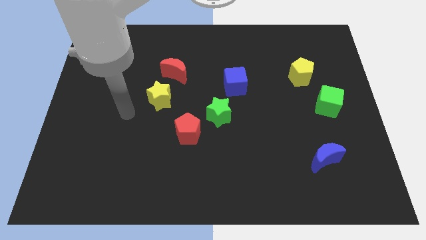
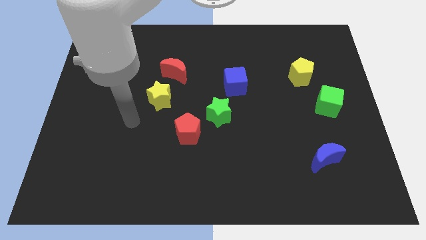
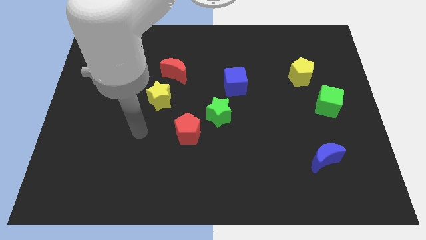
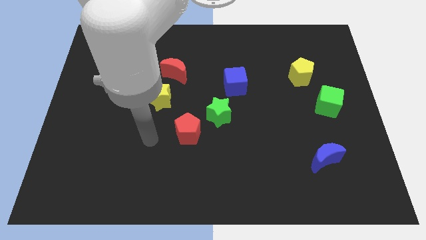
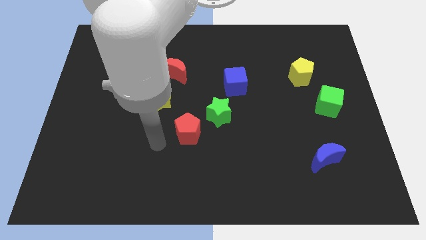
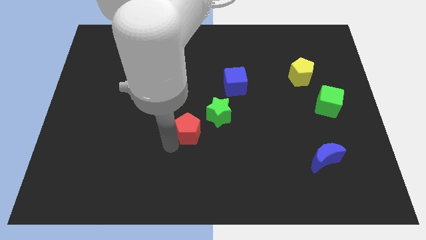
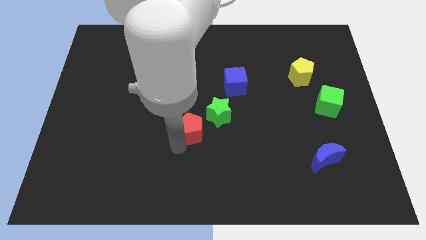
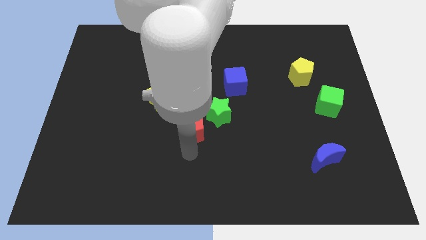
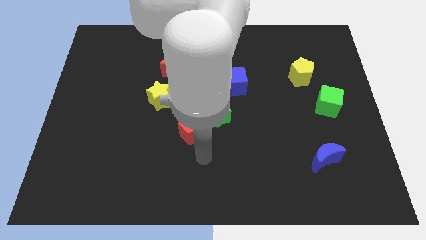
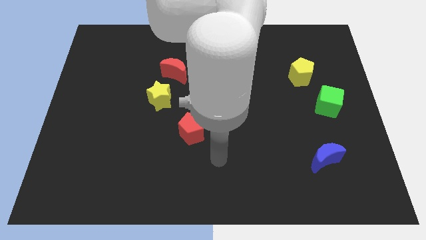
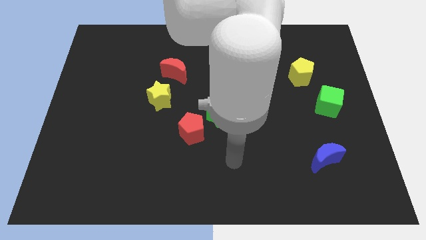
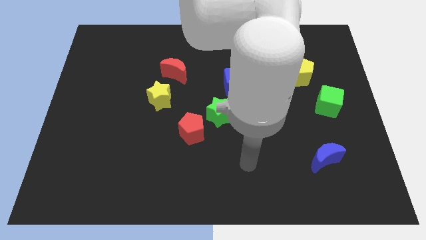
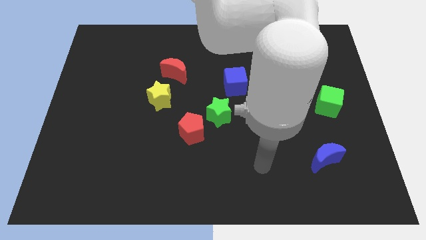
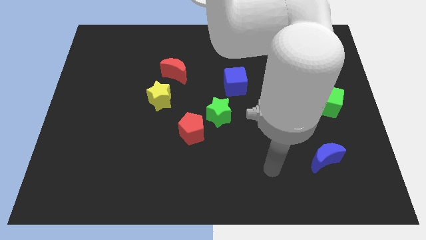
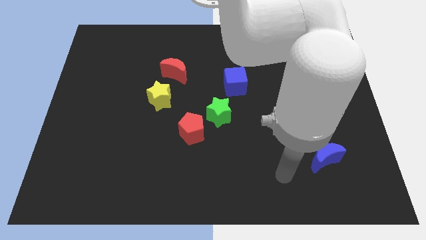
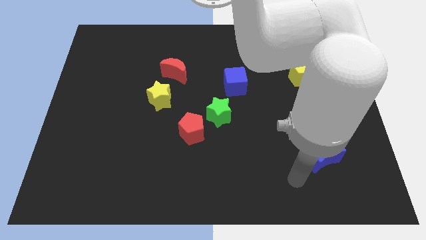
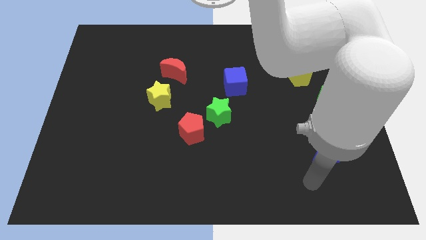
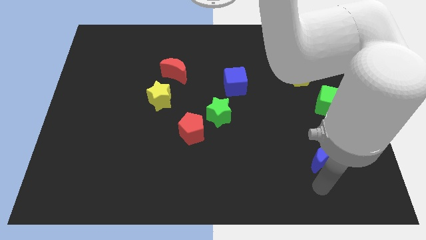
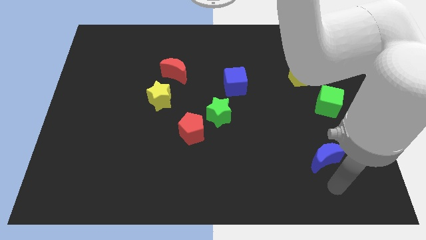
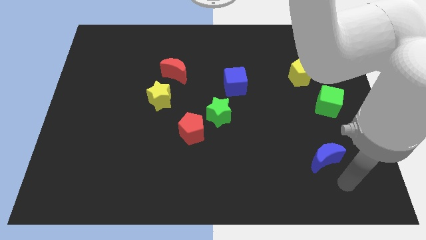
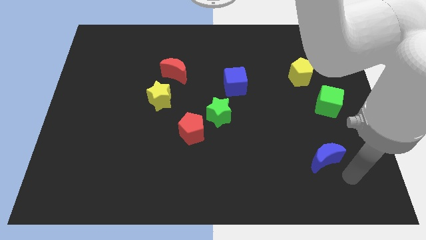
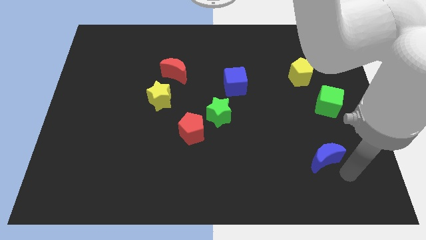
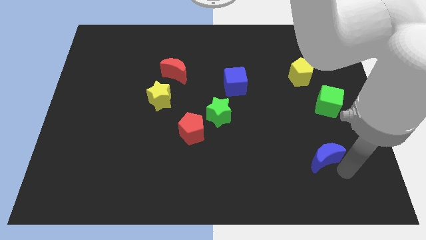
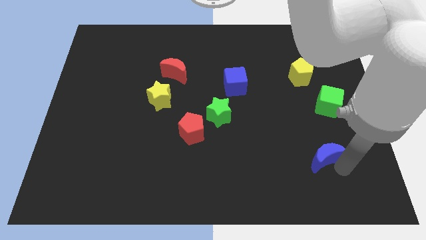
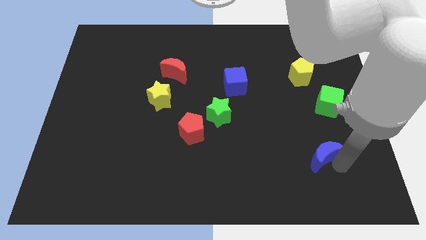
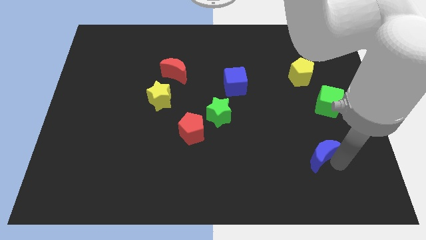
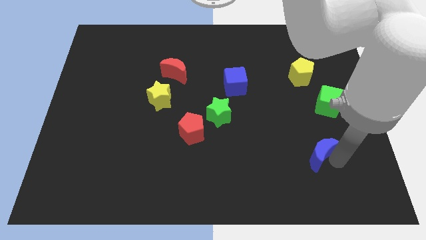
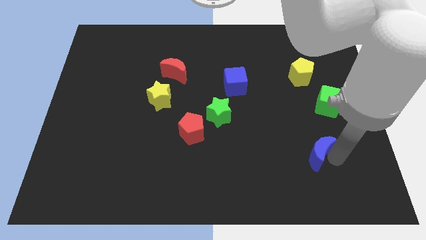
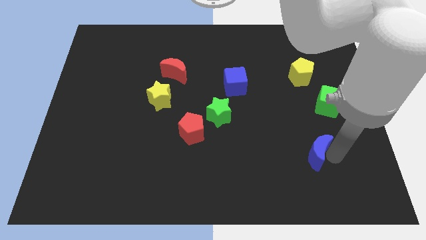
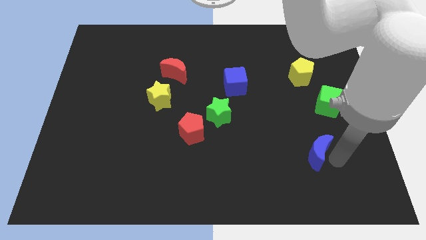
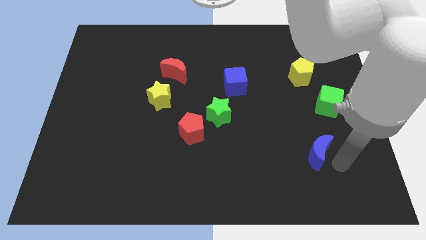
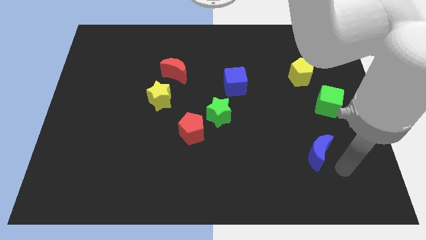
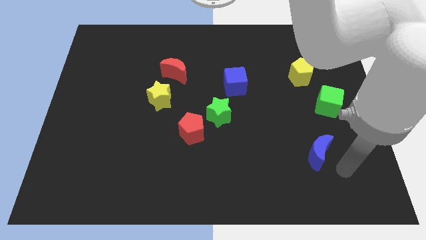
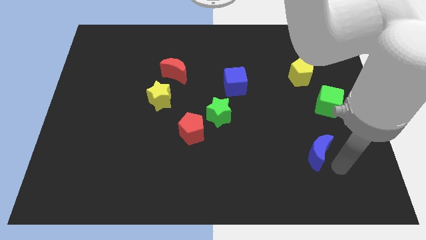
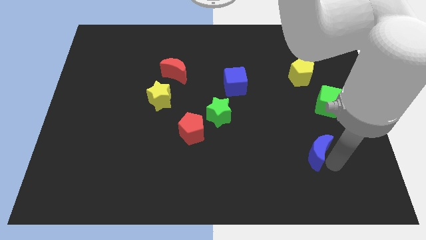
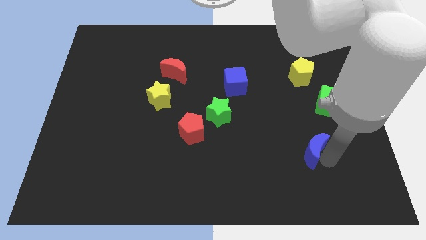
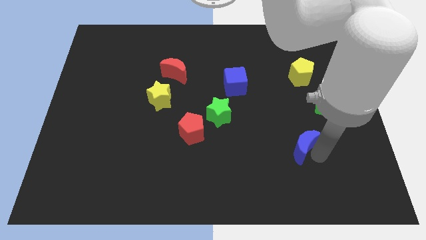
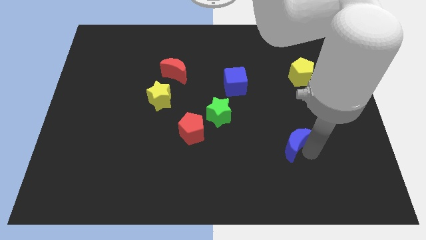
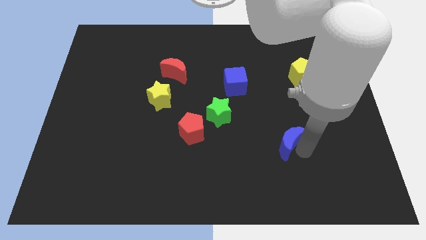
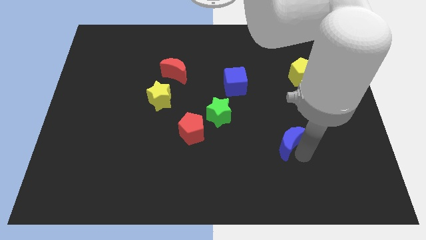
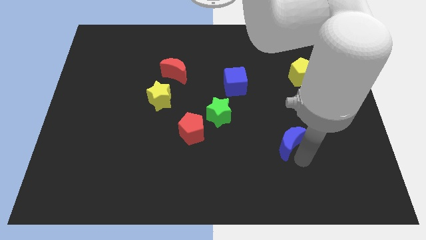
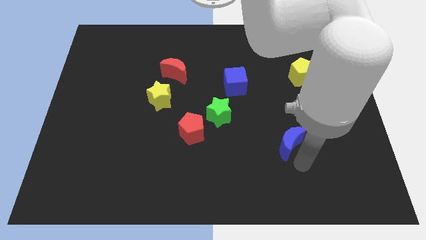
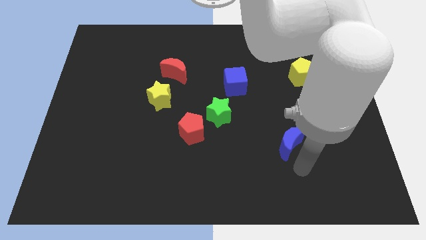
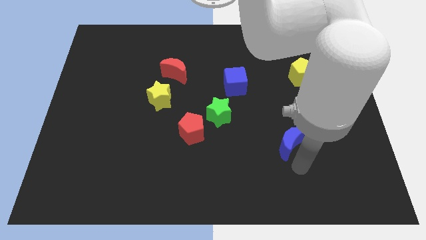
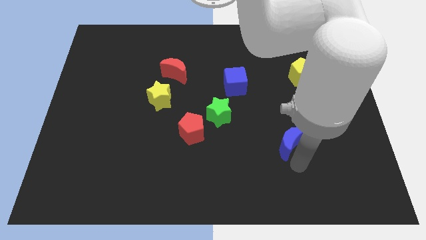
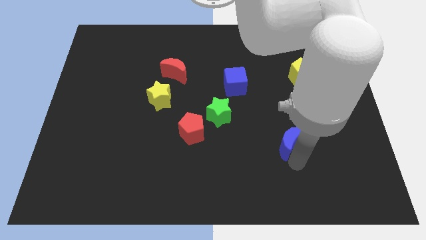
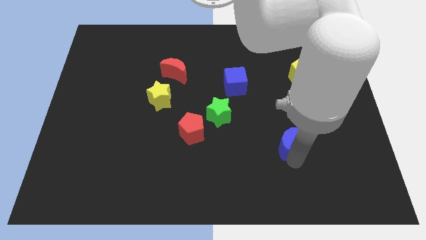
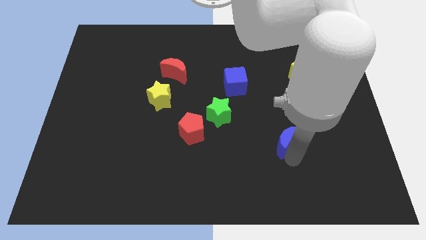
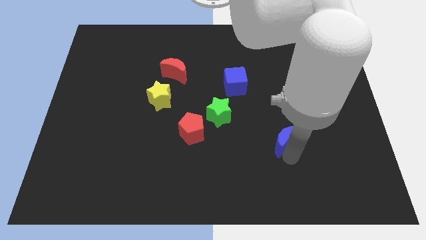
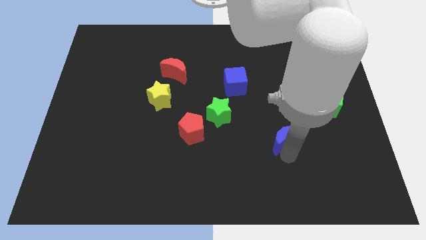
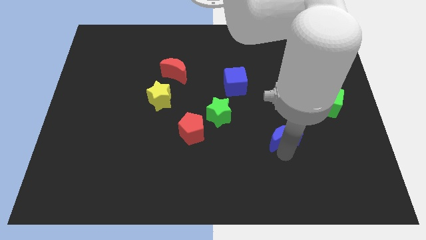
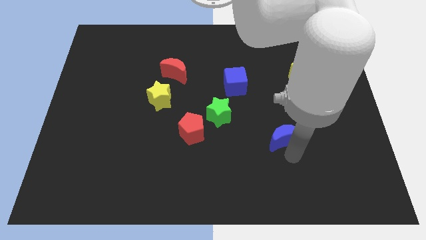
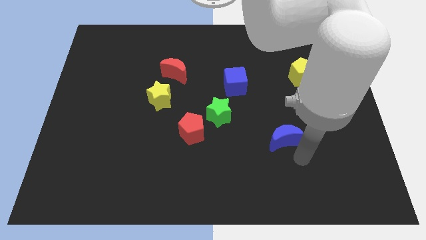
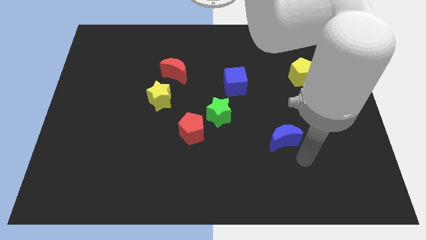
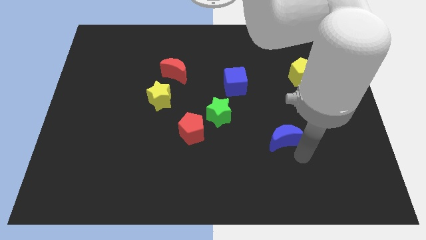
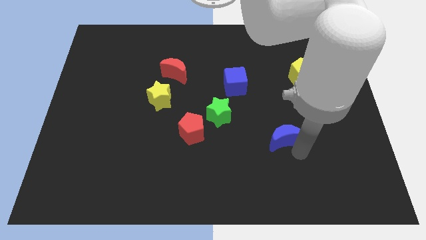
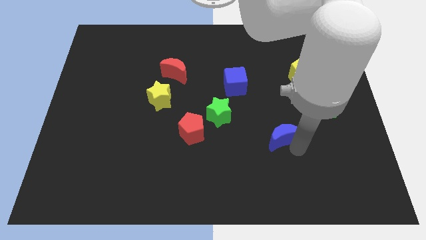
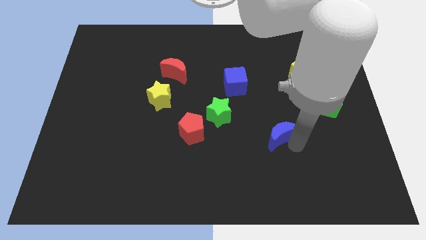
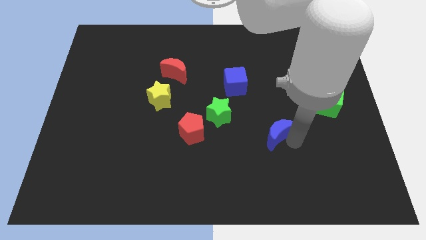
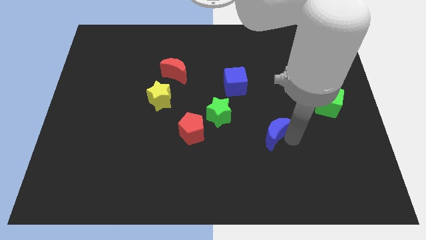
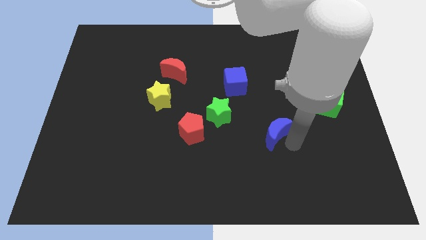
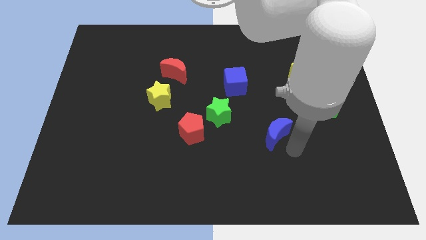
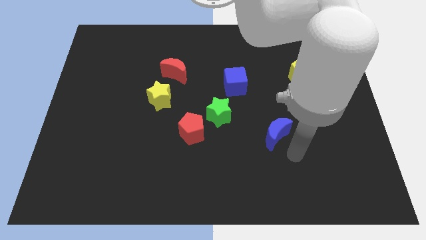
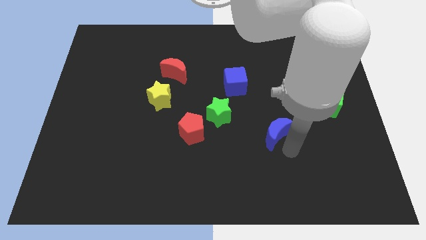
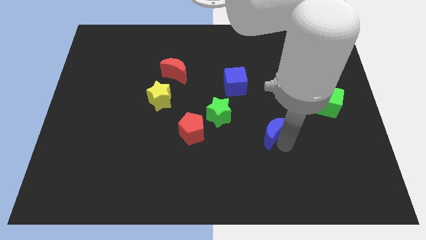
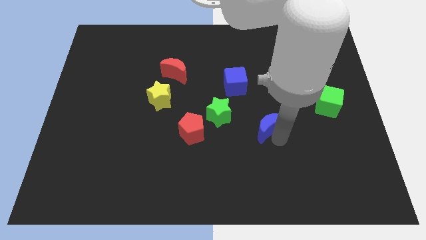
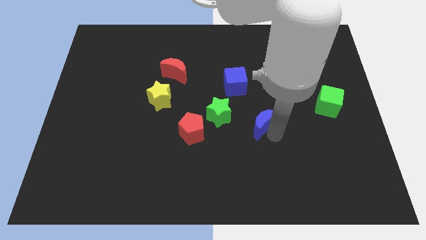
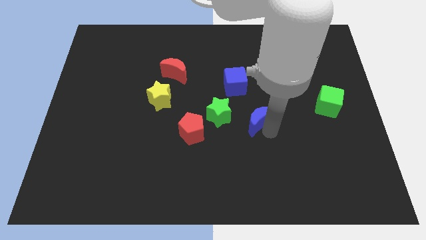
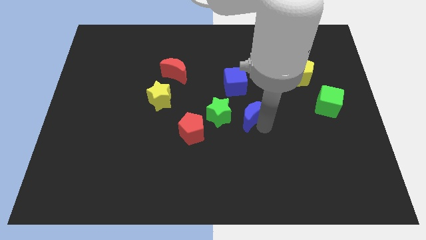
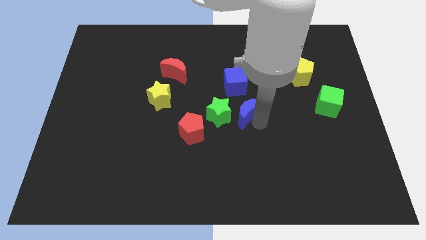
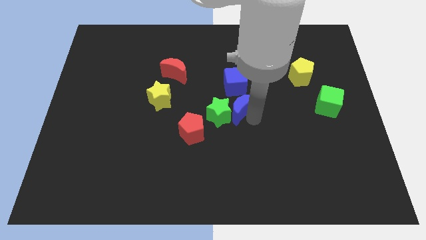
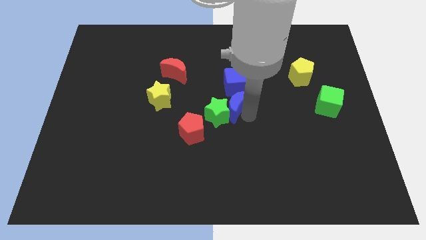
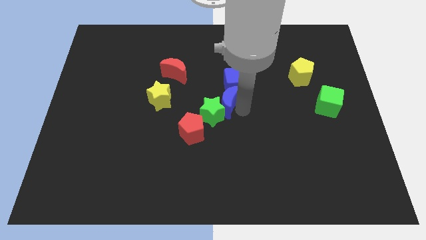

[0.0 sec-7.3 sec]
slide the blue moon just right of the yellow star

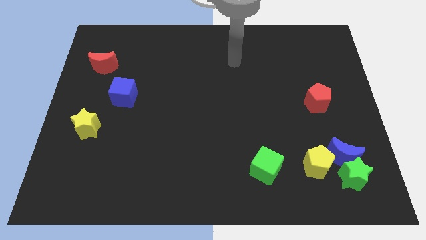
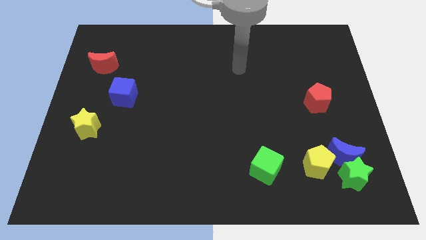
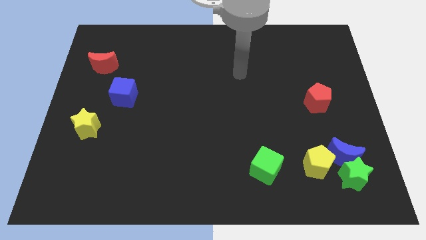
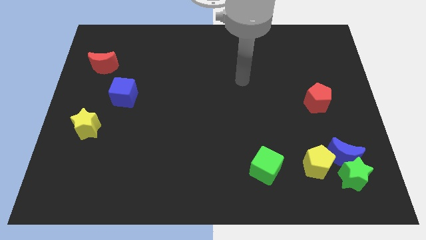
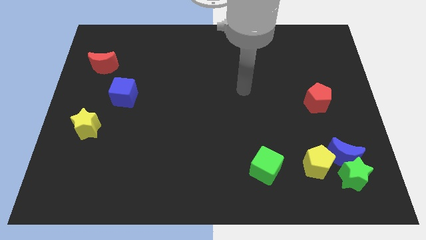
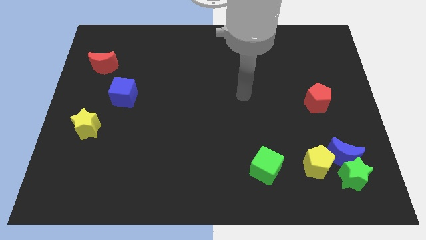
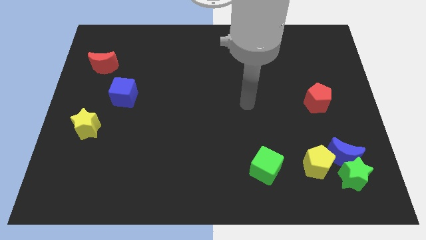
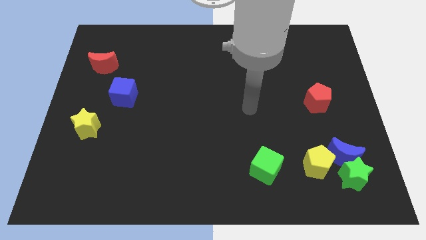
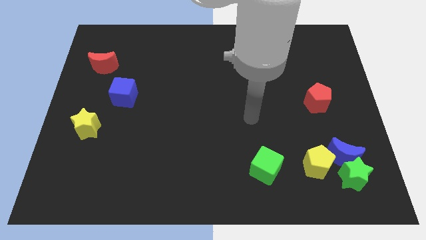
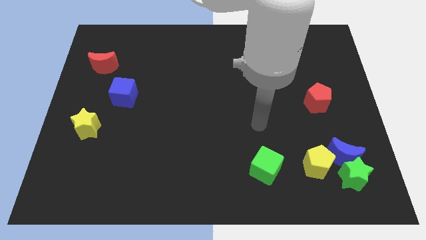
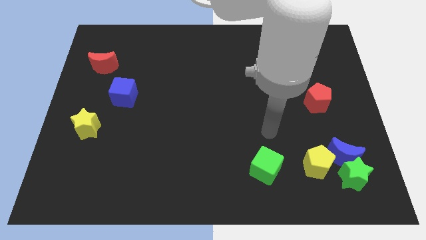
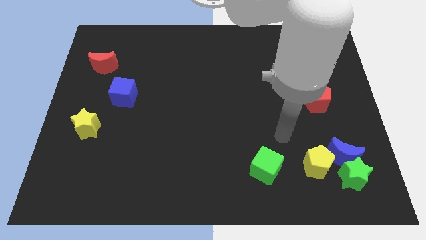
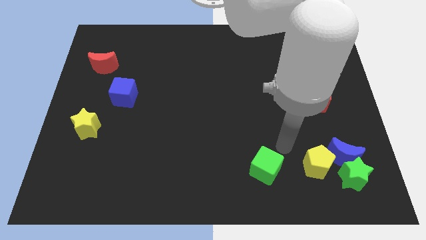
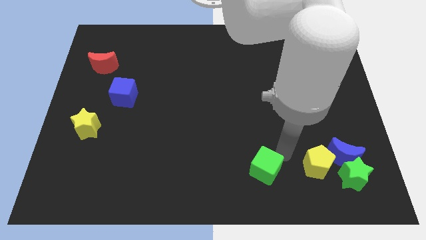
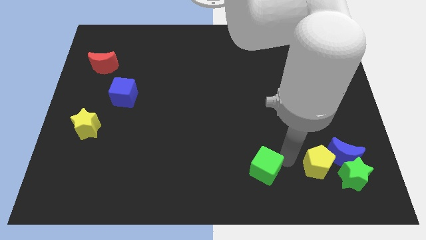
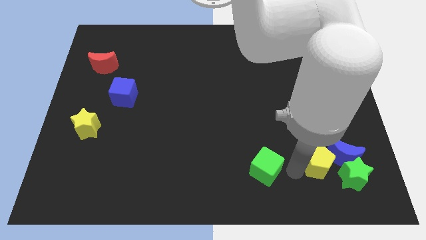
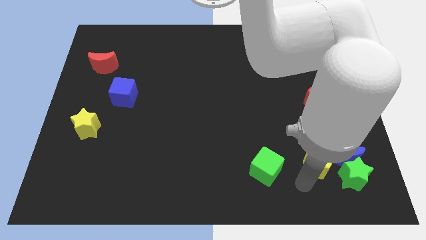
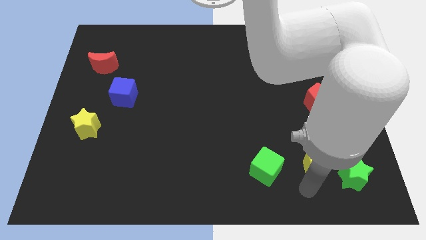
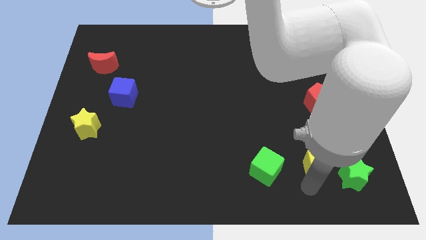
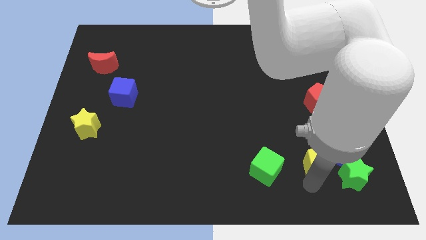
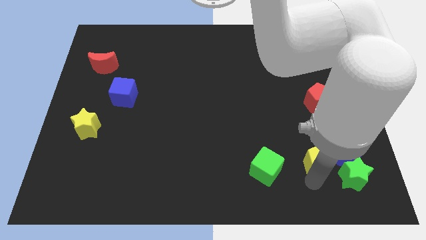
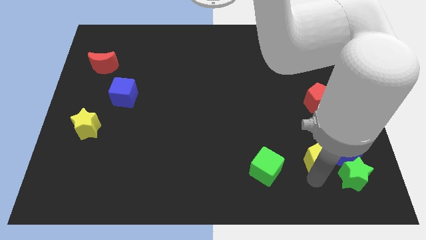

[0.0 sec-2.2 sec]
put the yellow pentagon below the red pentagon
